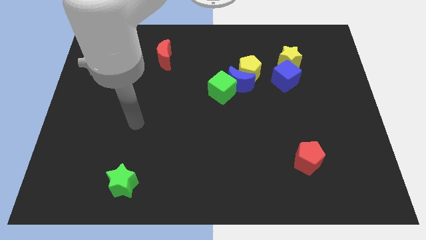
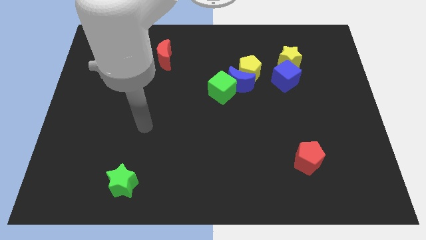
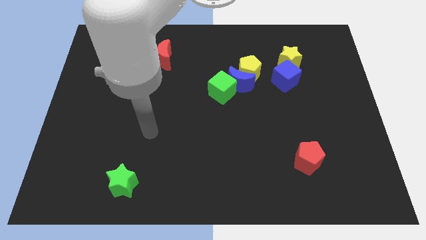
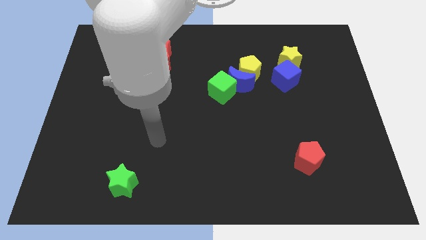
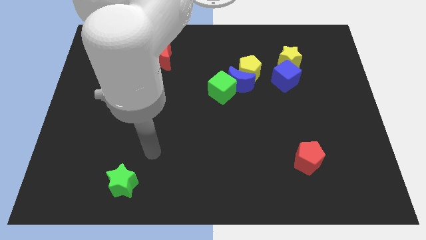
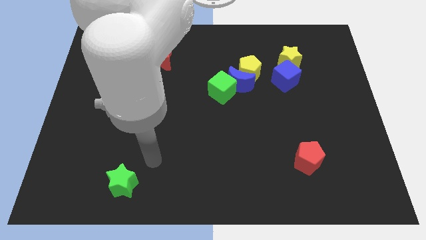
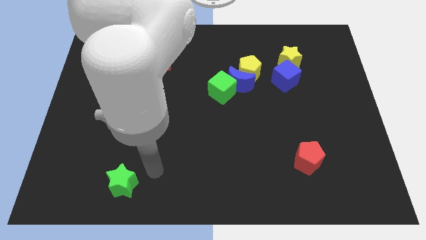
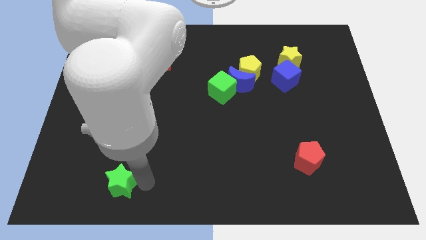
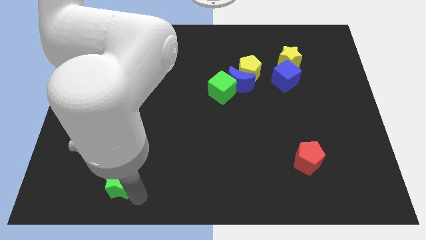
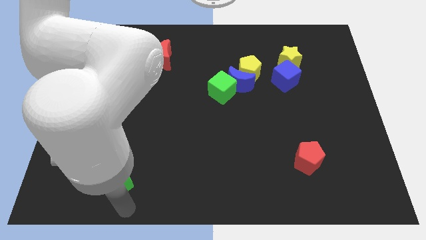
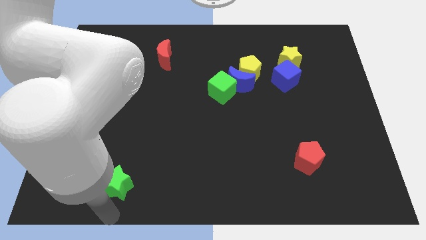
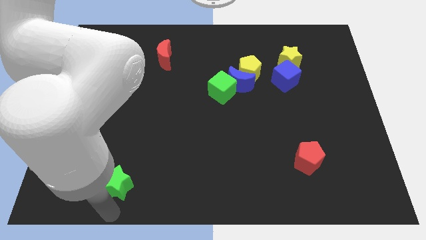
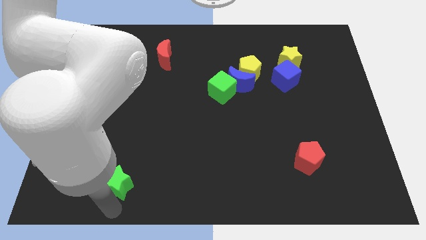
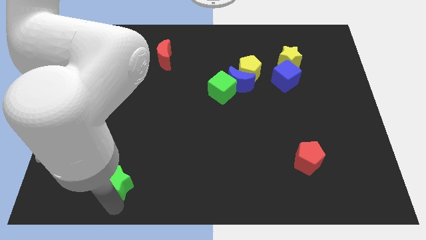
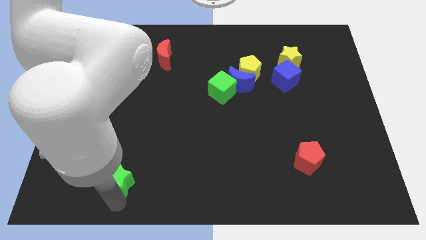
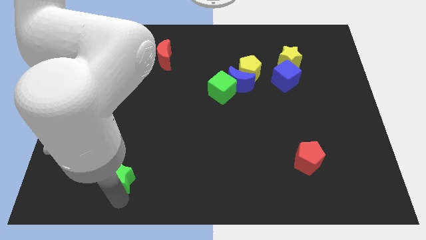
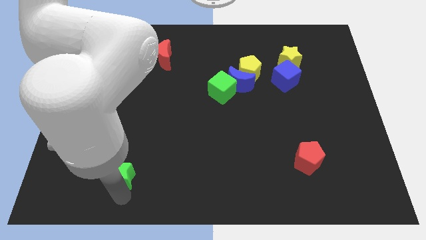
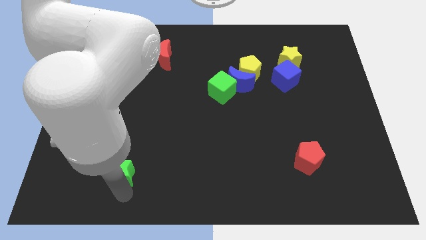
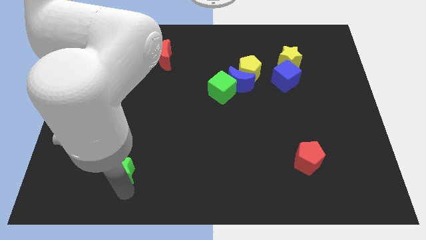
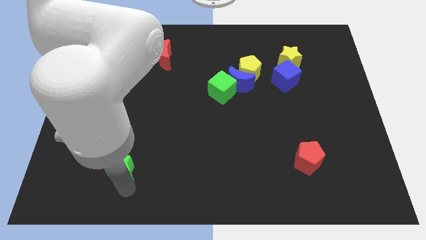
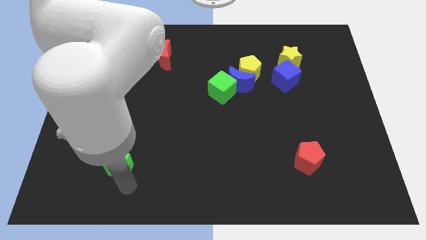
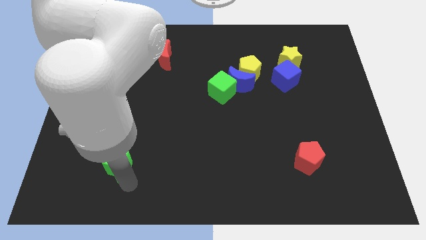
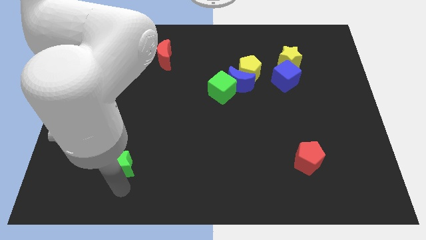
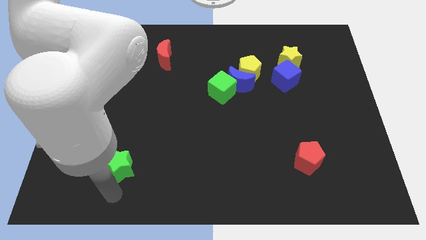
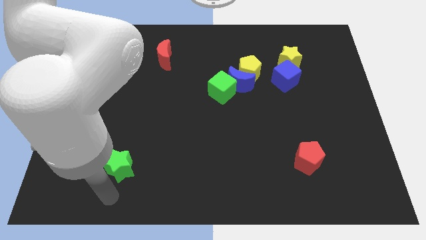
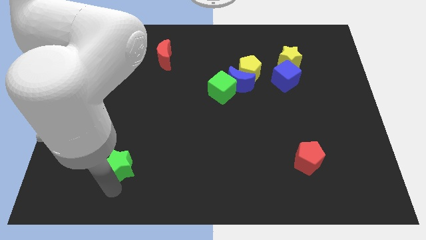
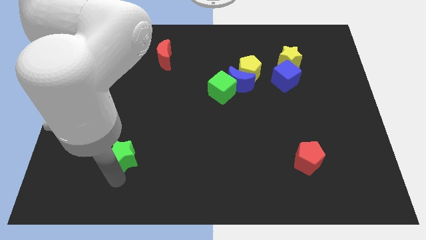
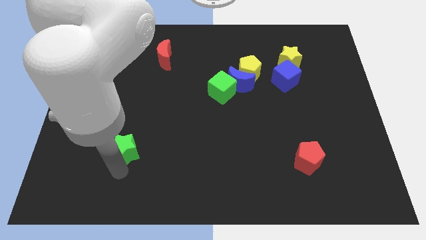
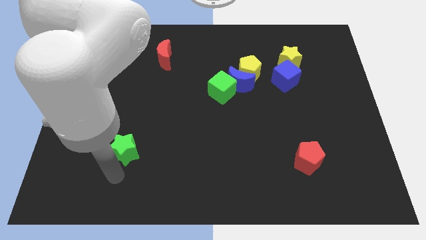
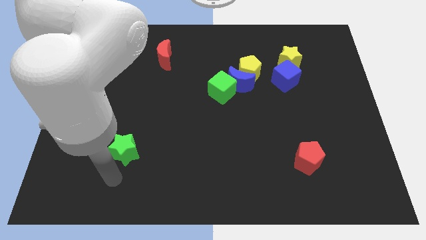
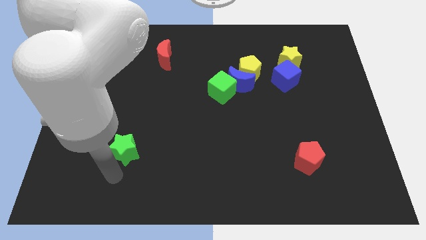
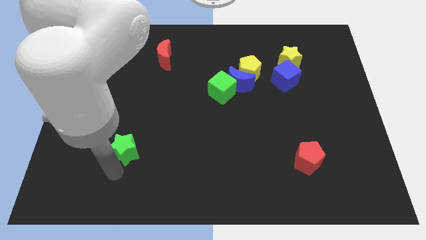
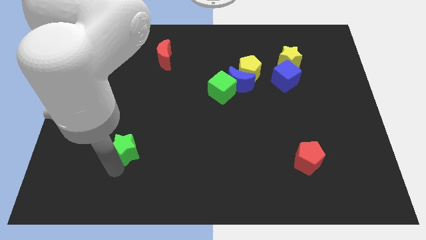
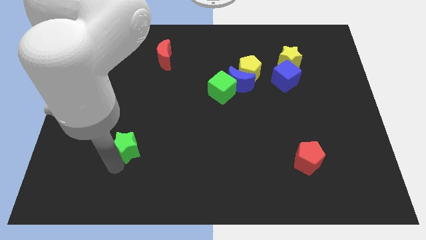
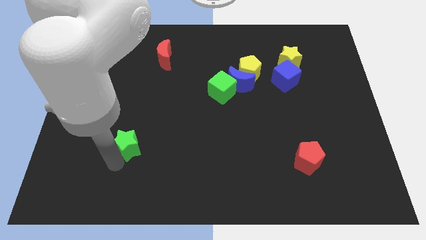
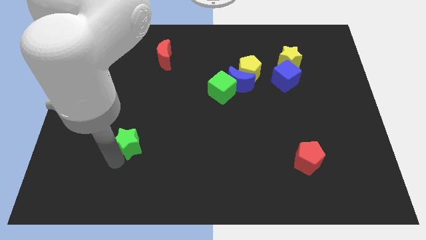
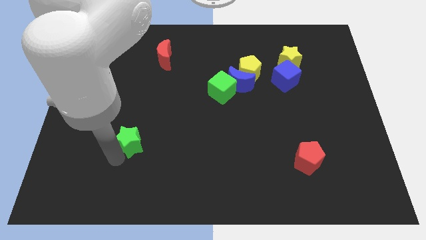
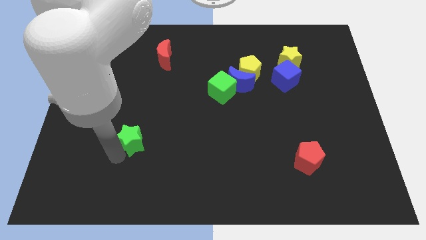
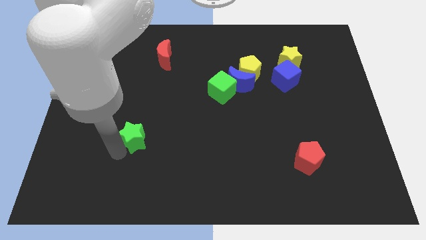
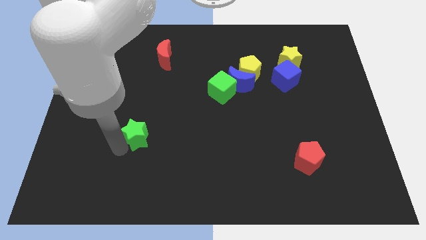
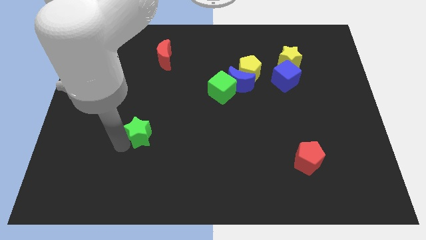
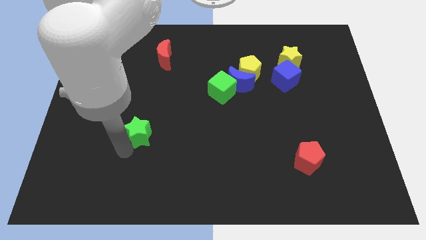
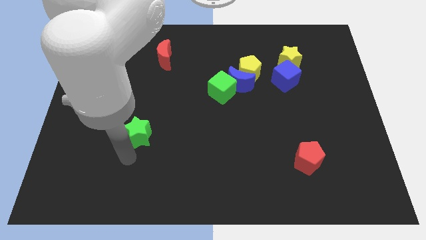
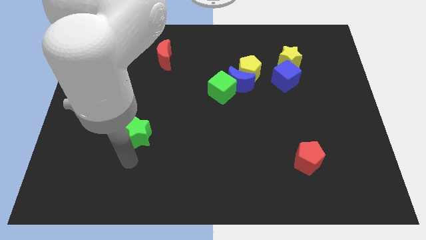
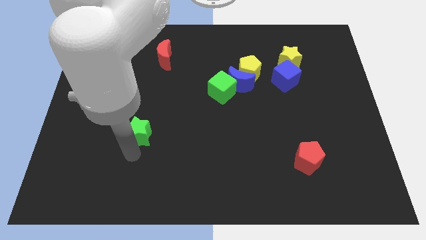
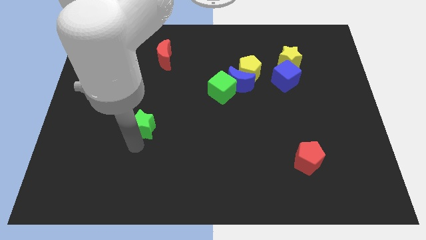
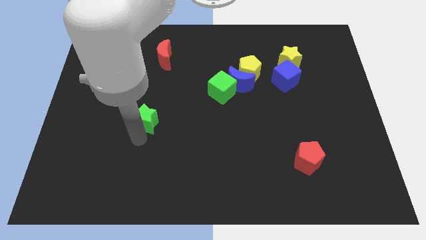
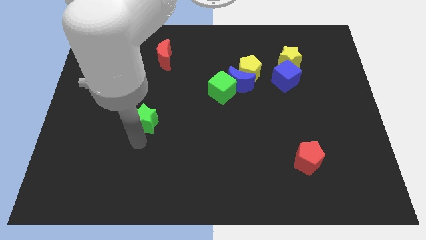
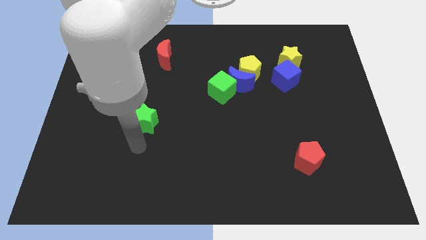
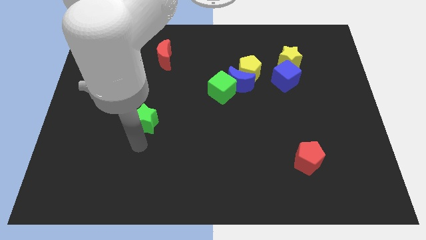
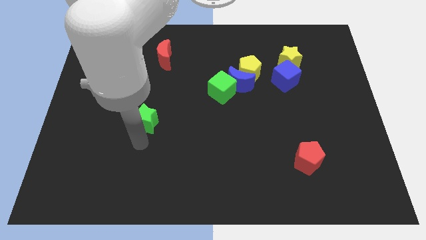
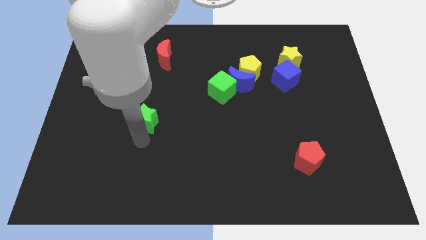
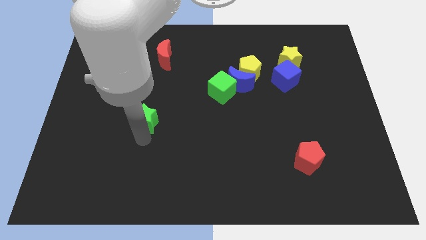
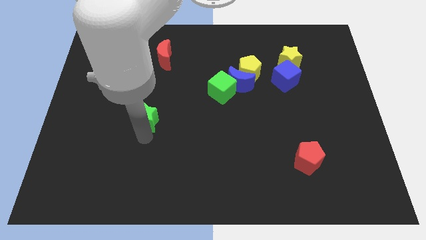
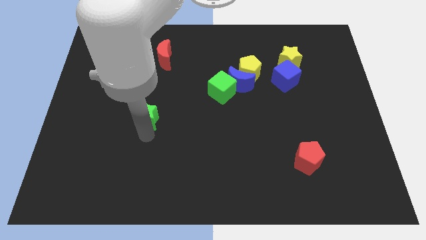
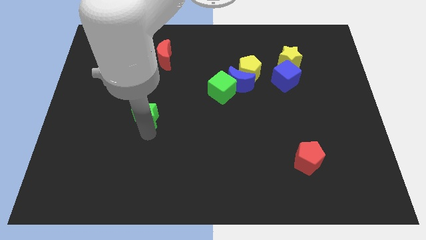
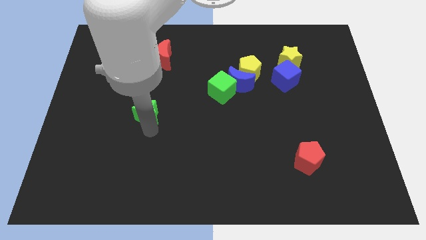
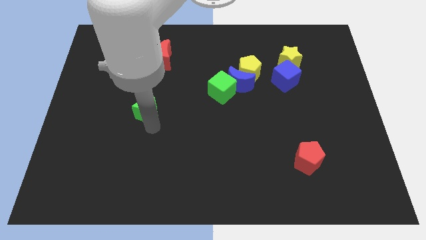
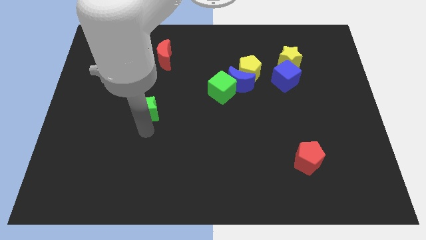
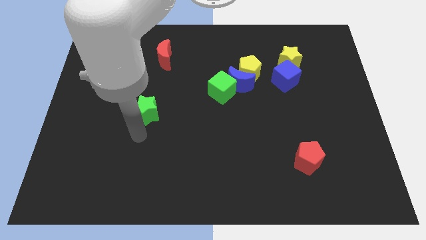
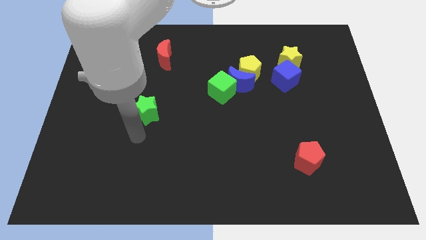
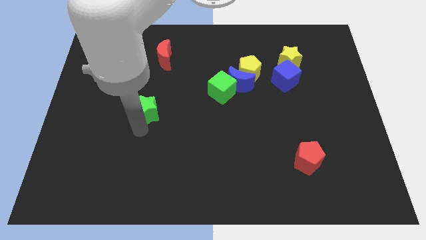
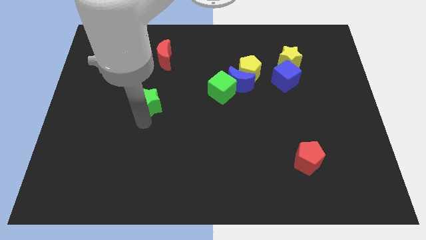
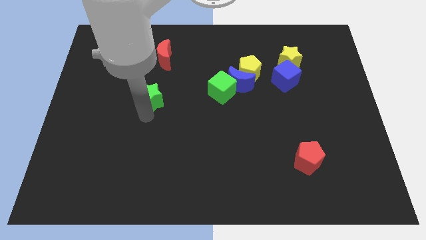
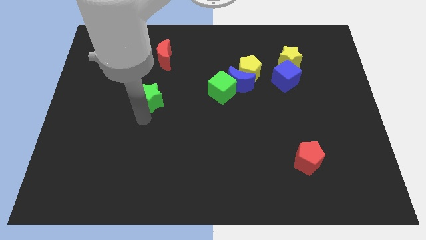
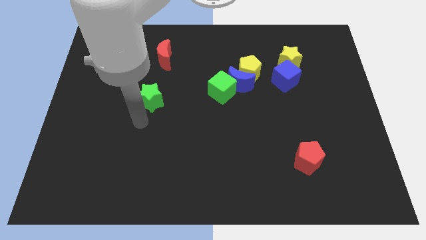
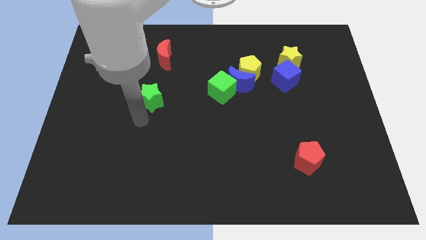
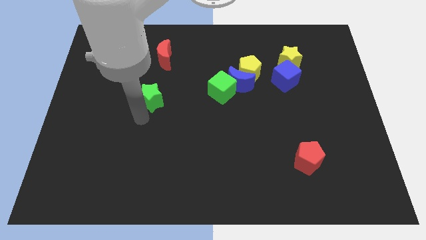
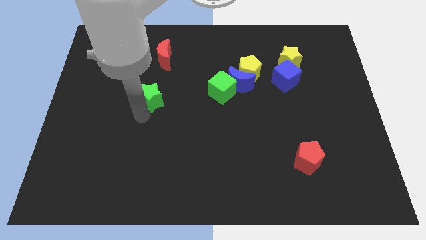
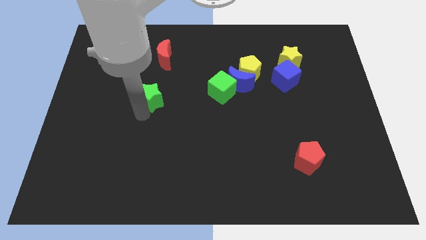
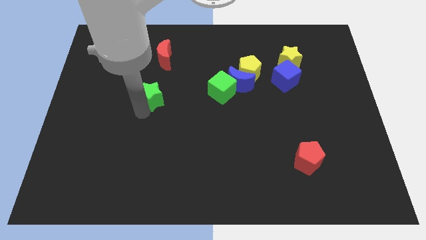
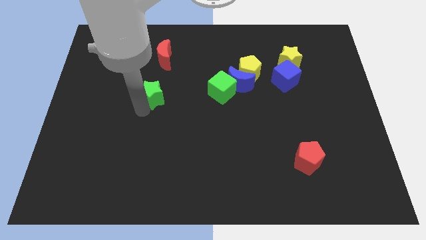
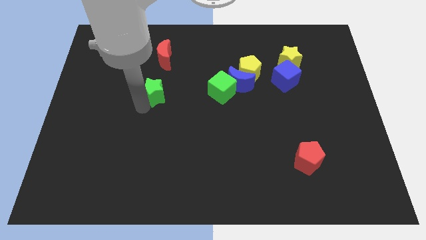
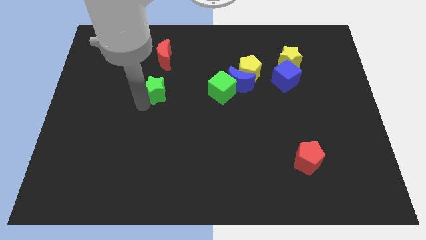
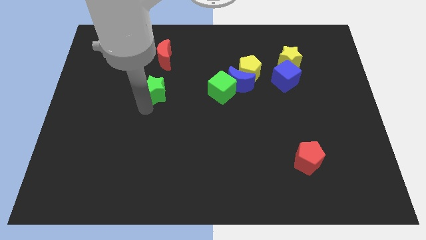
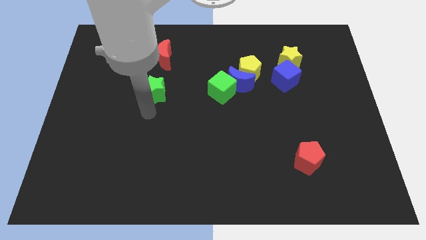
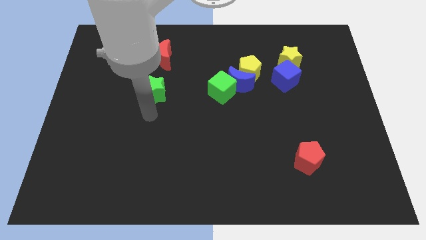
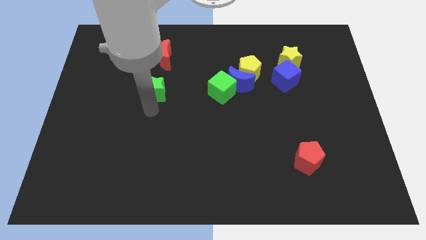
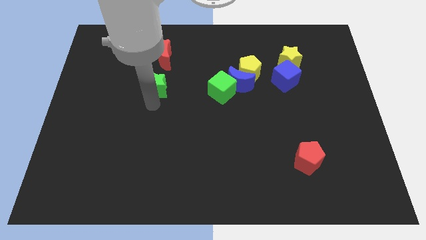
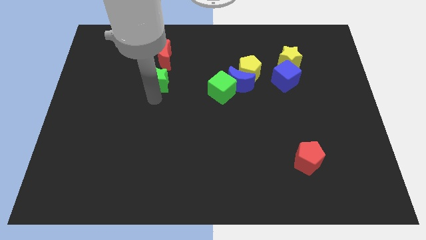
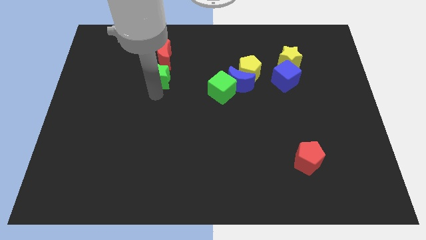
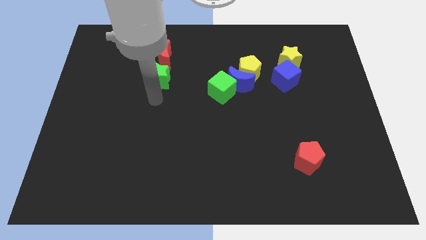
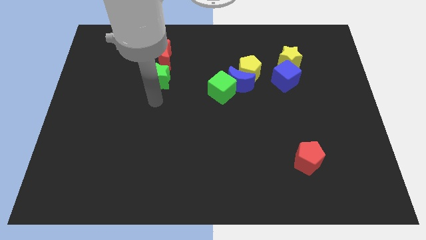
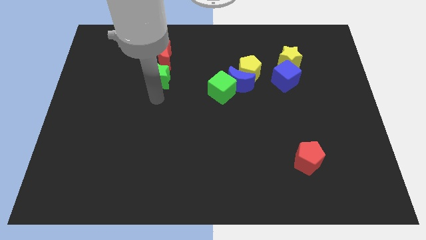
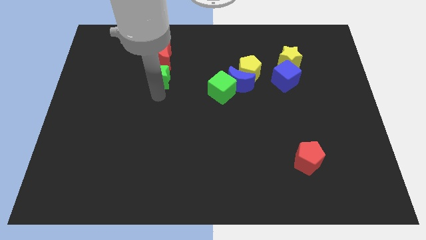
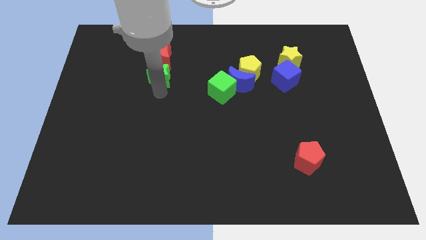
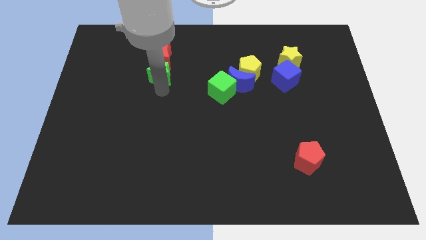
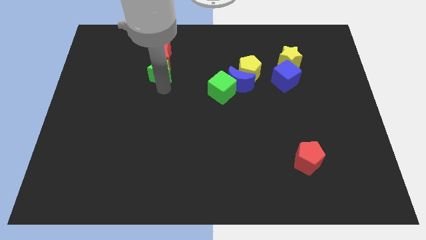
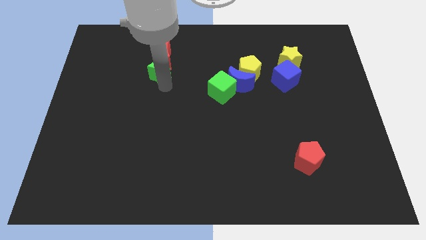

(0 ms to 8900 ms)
push the green star to the red moon
